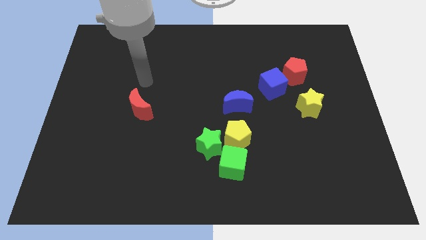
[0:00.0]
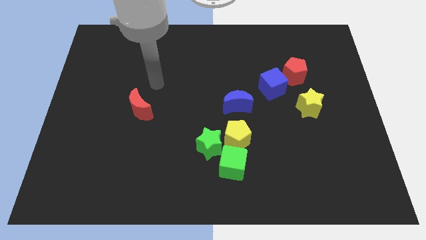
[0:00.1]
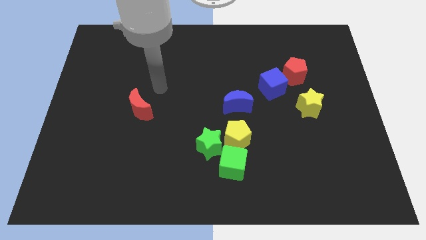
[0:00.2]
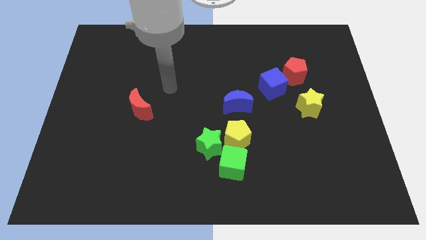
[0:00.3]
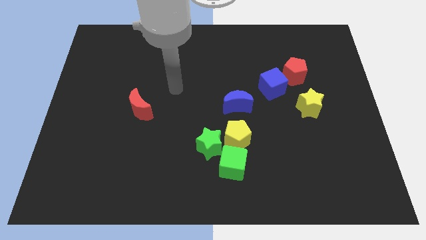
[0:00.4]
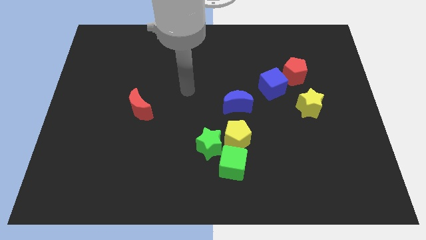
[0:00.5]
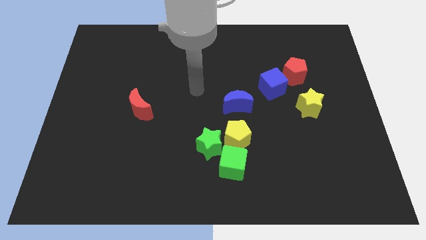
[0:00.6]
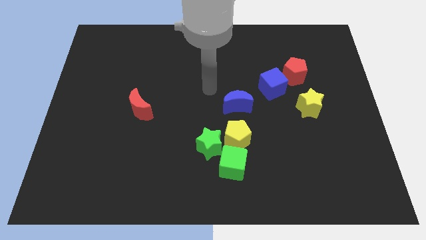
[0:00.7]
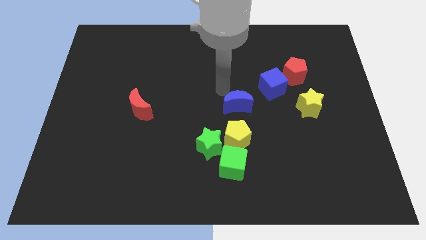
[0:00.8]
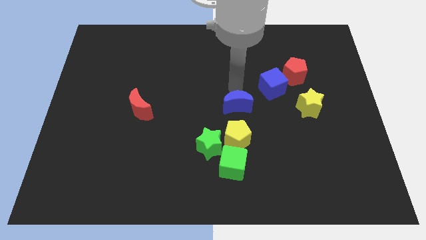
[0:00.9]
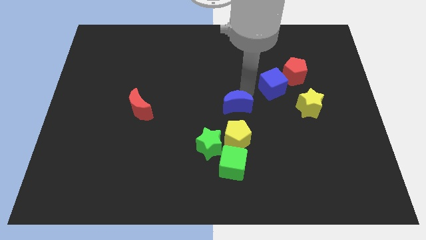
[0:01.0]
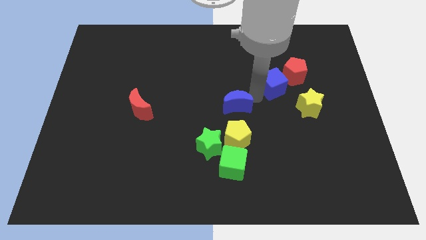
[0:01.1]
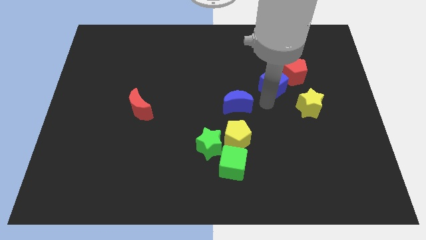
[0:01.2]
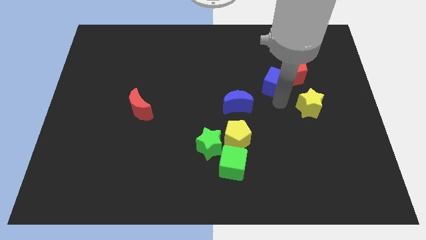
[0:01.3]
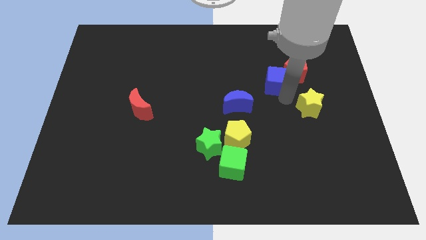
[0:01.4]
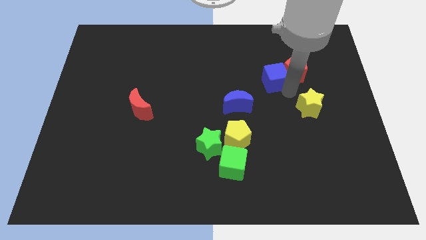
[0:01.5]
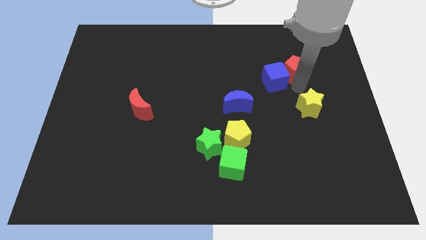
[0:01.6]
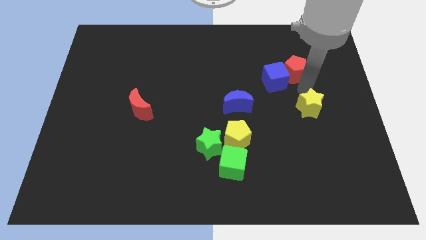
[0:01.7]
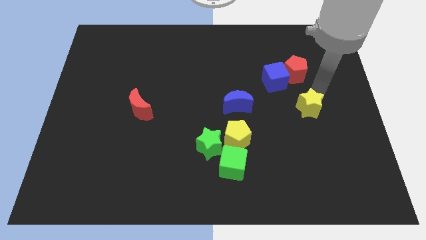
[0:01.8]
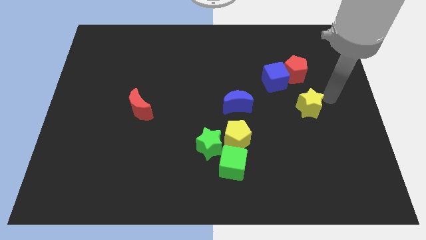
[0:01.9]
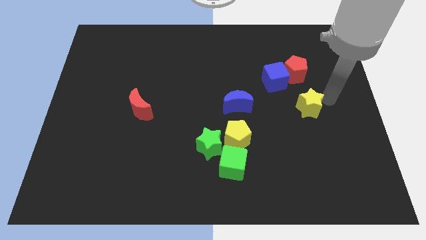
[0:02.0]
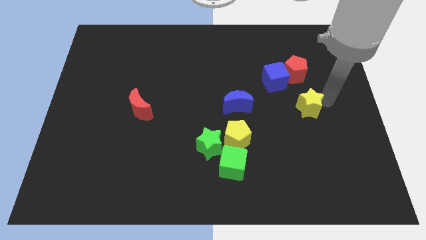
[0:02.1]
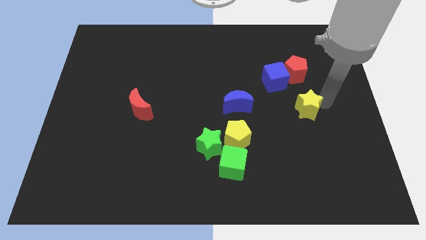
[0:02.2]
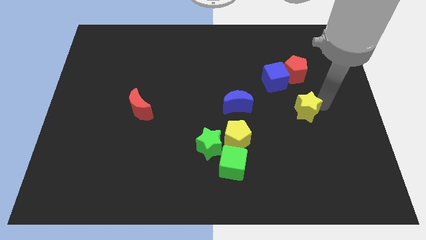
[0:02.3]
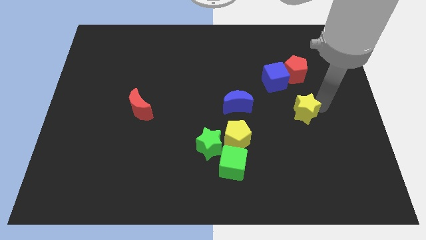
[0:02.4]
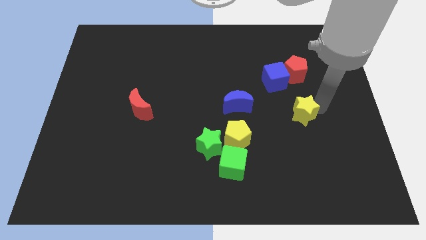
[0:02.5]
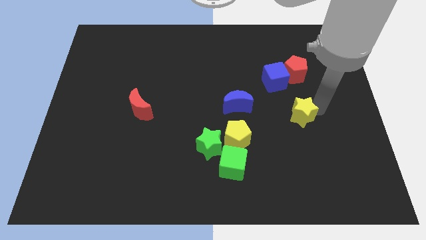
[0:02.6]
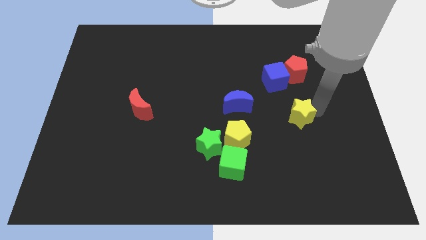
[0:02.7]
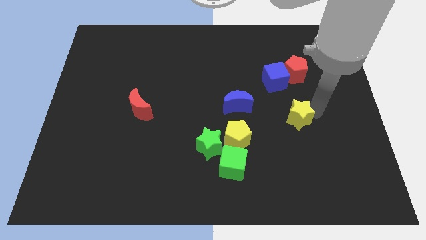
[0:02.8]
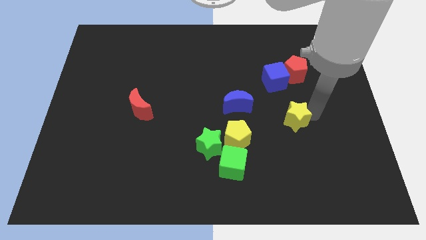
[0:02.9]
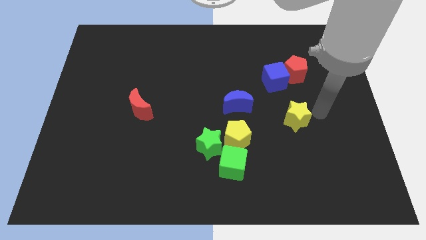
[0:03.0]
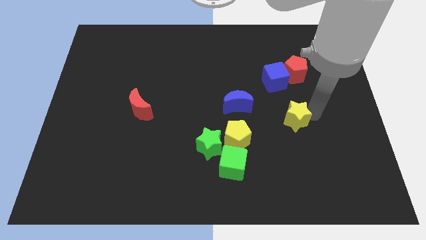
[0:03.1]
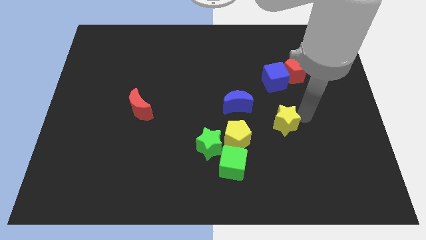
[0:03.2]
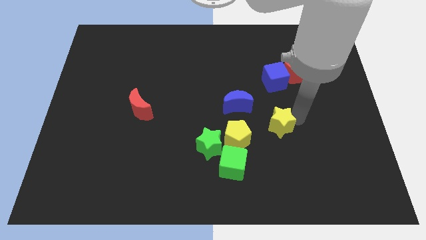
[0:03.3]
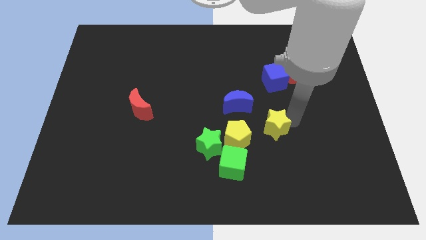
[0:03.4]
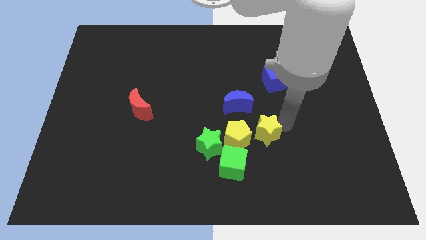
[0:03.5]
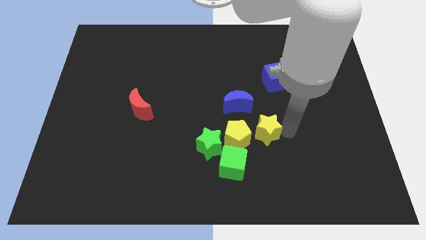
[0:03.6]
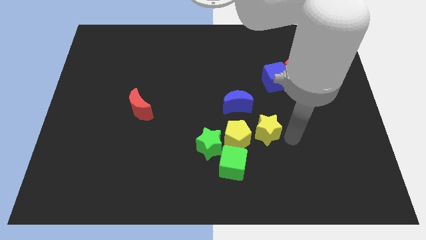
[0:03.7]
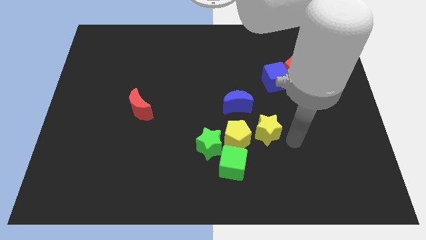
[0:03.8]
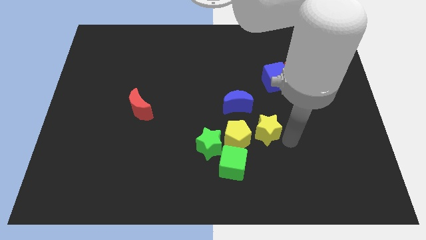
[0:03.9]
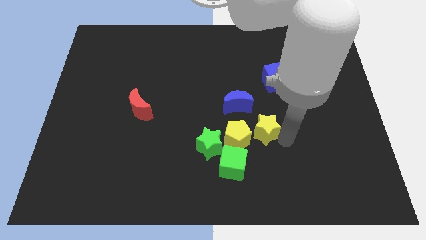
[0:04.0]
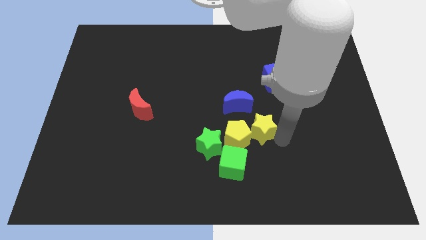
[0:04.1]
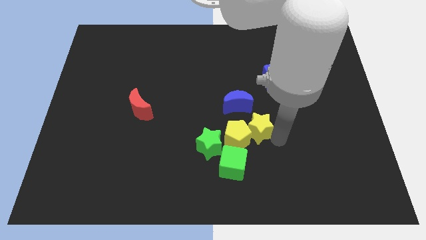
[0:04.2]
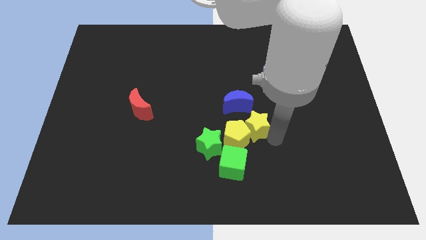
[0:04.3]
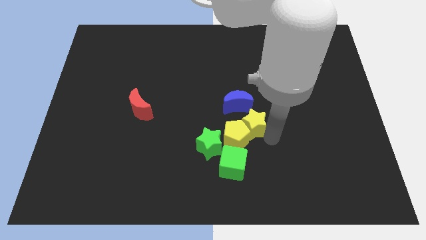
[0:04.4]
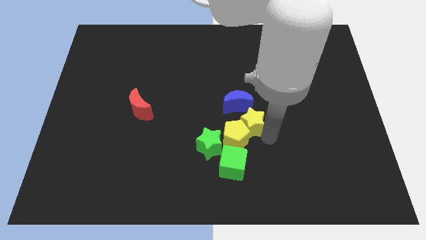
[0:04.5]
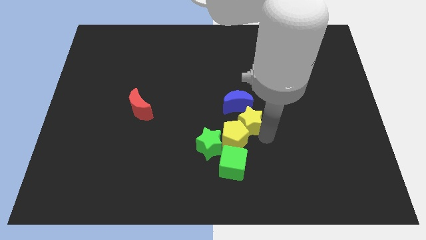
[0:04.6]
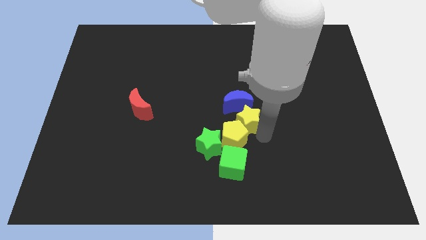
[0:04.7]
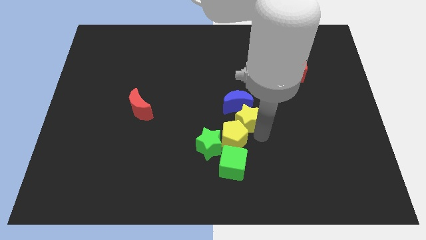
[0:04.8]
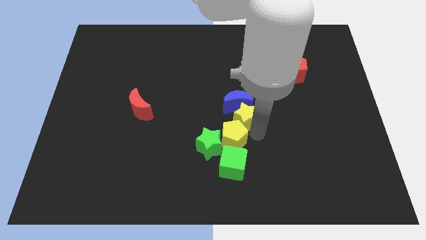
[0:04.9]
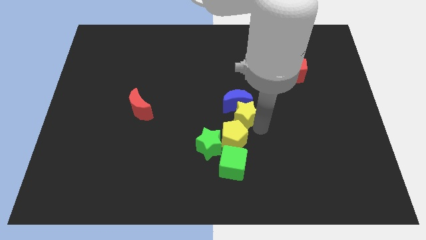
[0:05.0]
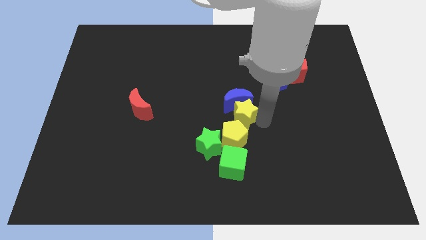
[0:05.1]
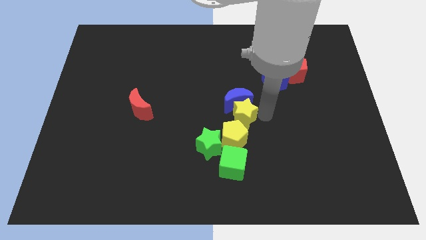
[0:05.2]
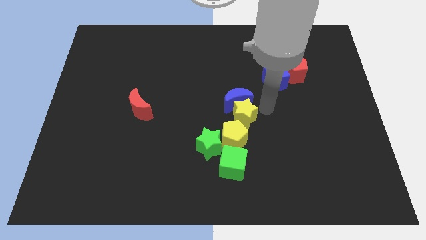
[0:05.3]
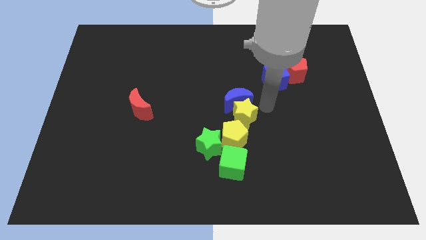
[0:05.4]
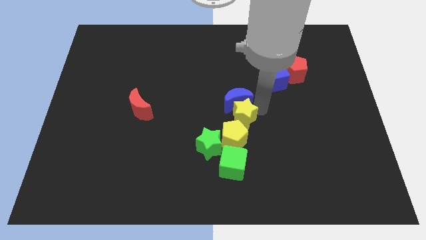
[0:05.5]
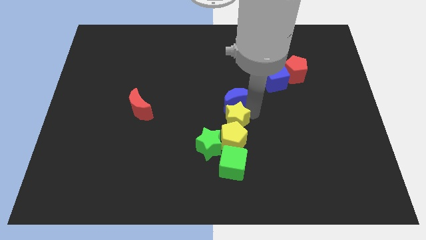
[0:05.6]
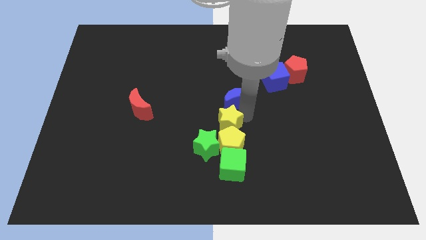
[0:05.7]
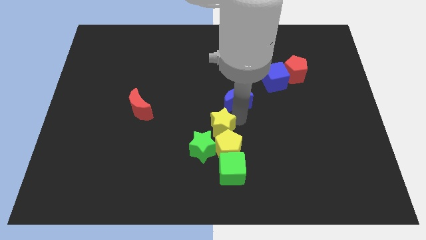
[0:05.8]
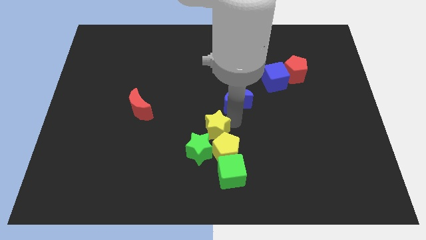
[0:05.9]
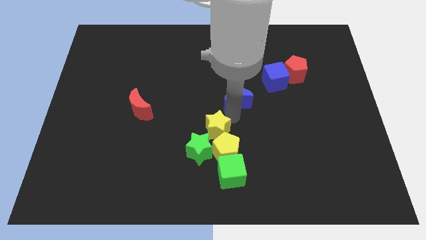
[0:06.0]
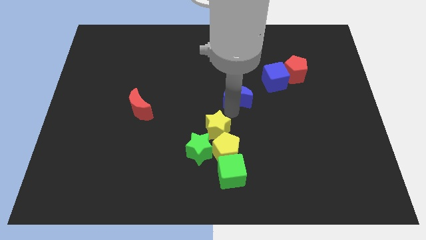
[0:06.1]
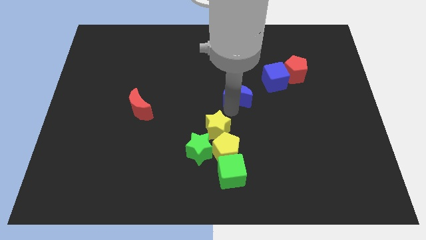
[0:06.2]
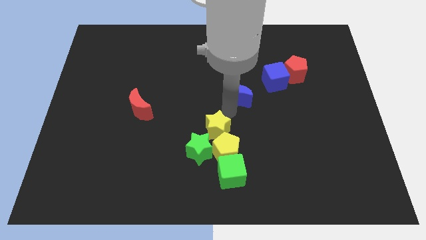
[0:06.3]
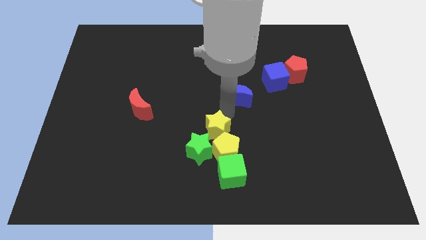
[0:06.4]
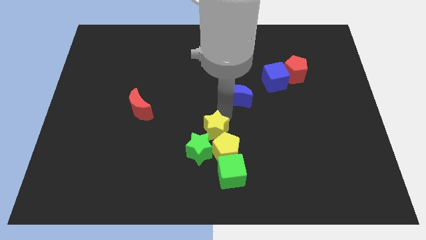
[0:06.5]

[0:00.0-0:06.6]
move the yellow star next to the green star

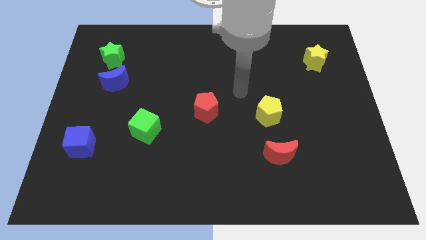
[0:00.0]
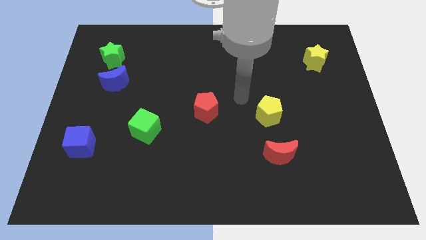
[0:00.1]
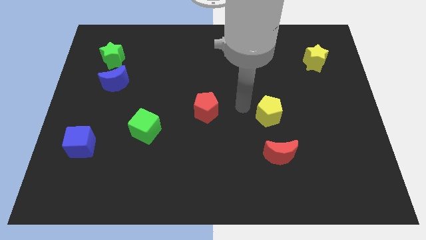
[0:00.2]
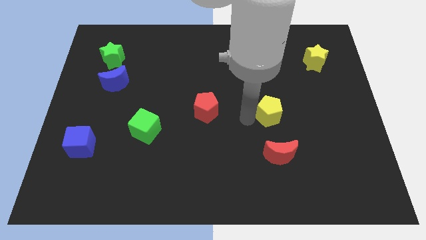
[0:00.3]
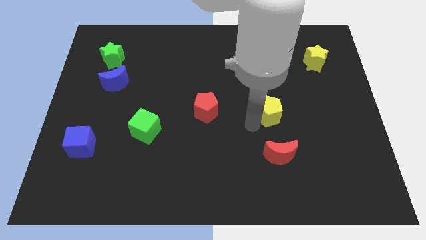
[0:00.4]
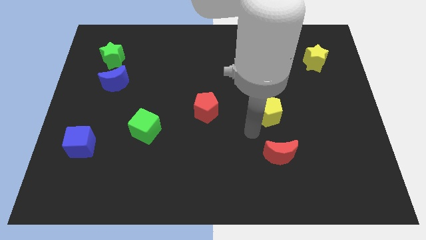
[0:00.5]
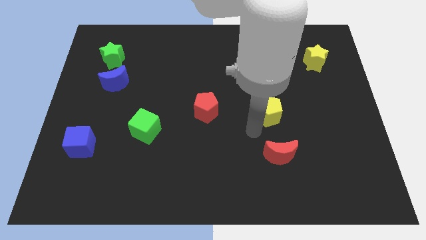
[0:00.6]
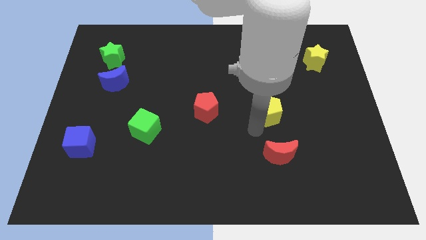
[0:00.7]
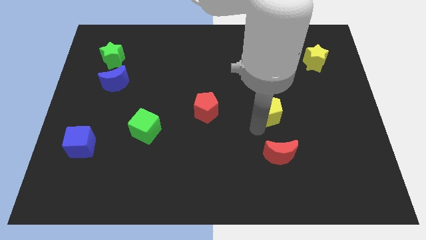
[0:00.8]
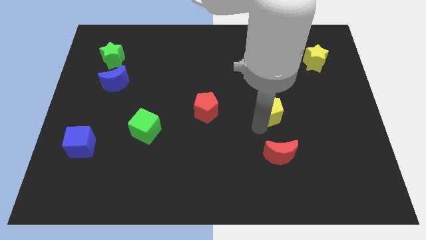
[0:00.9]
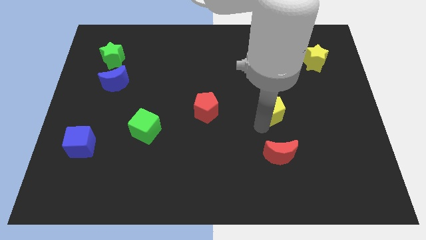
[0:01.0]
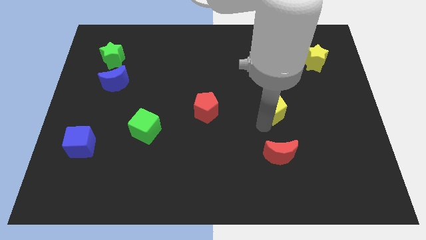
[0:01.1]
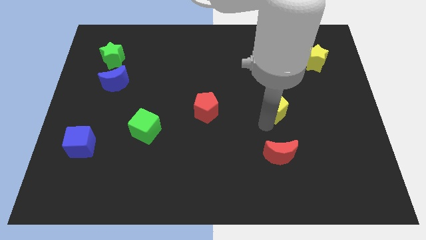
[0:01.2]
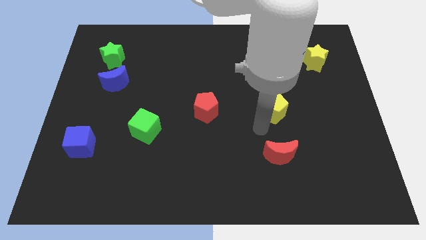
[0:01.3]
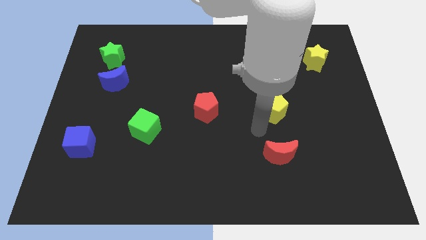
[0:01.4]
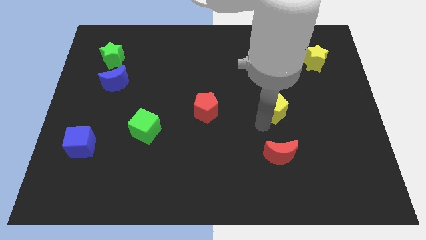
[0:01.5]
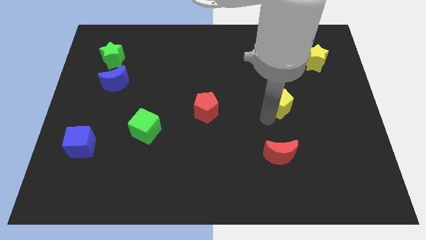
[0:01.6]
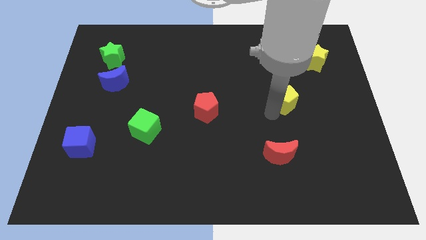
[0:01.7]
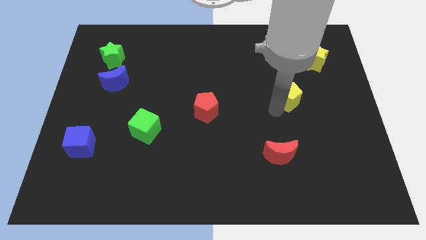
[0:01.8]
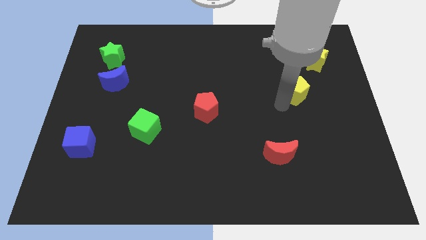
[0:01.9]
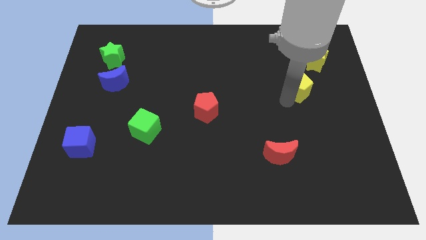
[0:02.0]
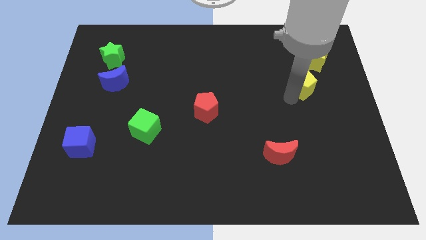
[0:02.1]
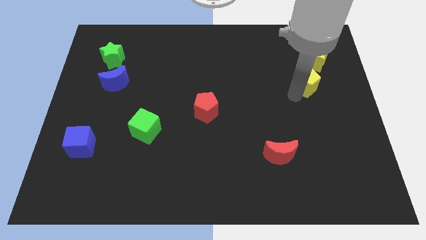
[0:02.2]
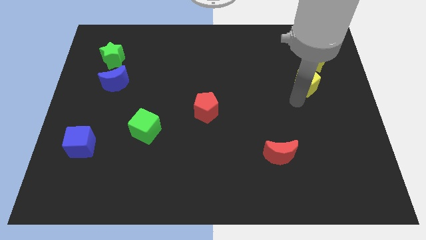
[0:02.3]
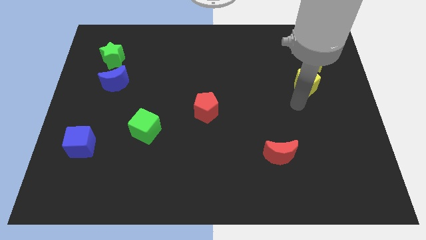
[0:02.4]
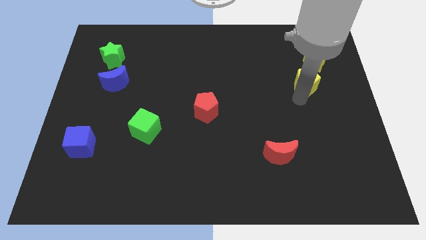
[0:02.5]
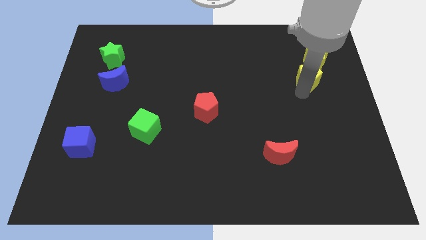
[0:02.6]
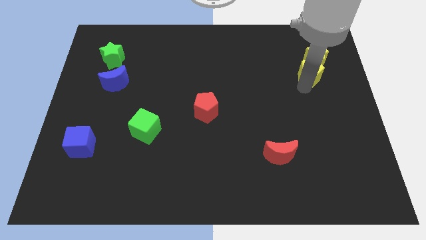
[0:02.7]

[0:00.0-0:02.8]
move the yellow pentagon close to the yellow star
